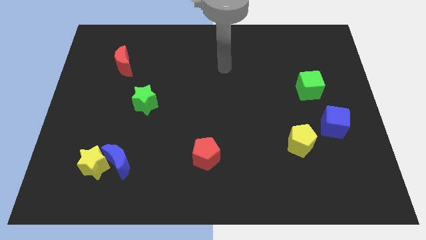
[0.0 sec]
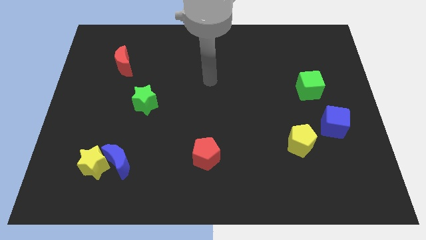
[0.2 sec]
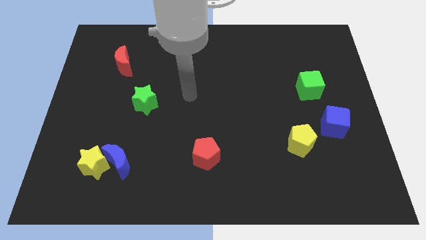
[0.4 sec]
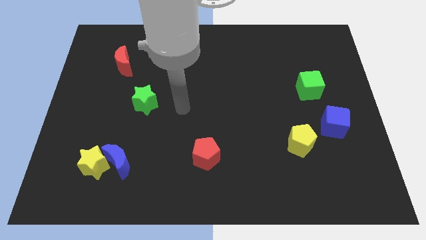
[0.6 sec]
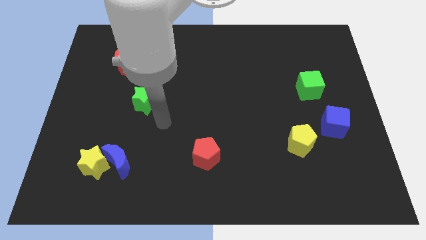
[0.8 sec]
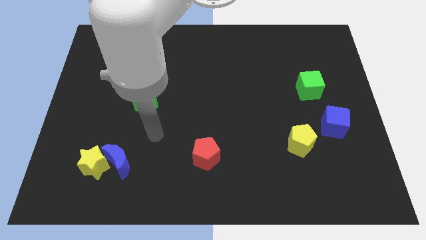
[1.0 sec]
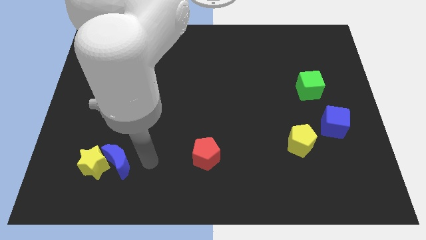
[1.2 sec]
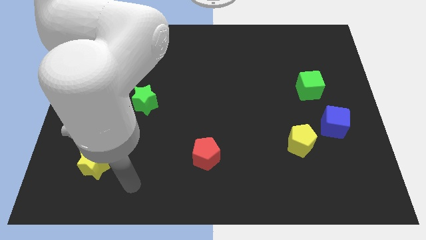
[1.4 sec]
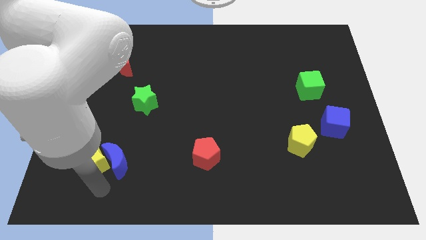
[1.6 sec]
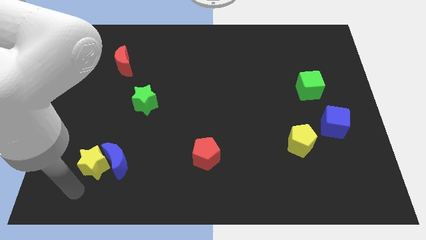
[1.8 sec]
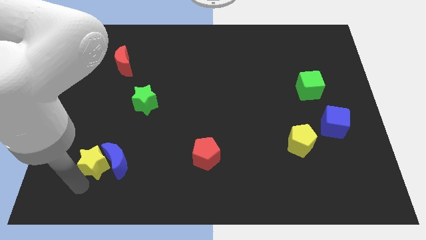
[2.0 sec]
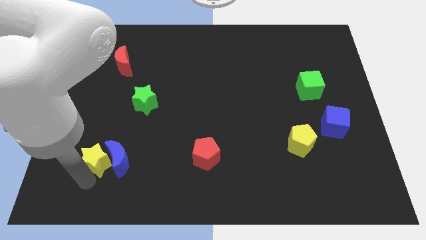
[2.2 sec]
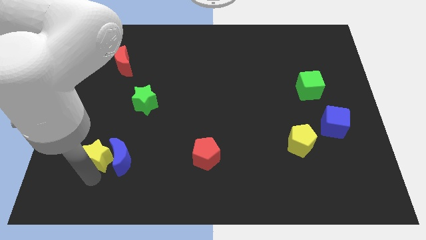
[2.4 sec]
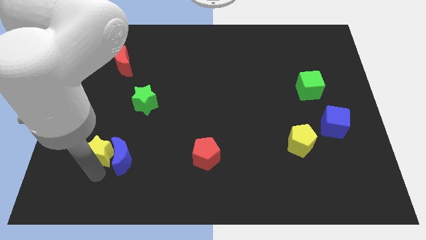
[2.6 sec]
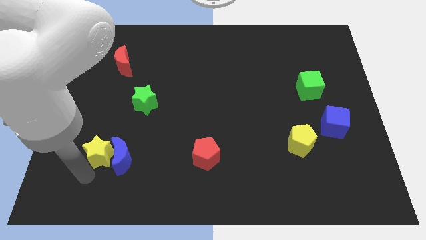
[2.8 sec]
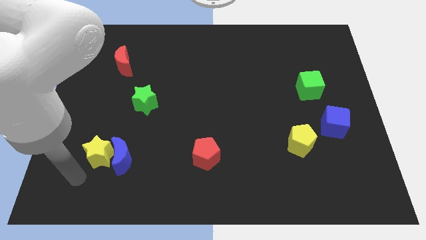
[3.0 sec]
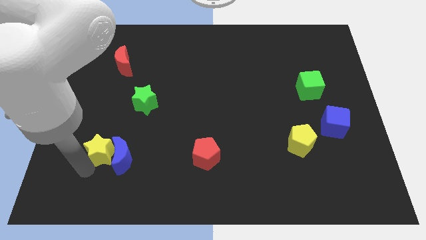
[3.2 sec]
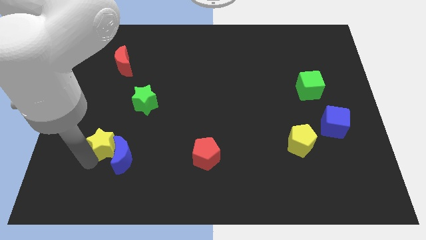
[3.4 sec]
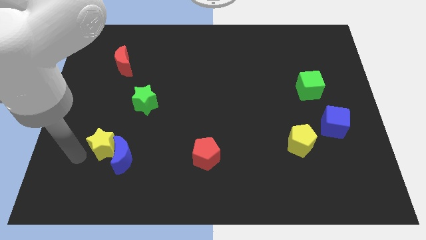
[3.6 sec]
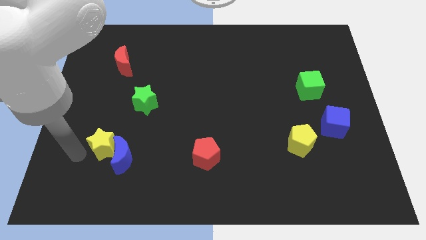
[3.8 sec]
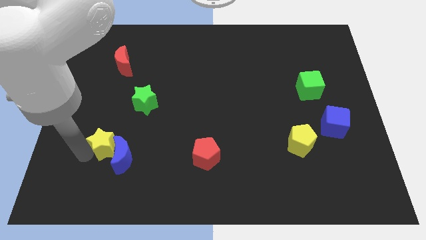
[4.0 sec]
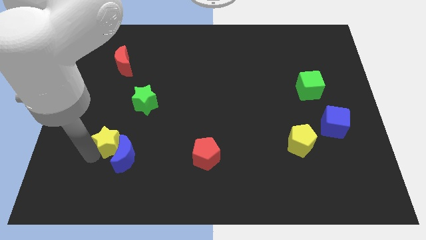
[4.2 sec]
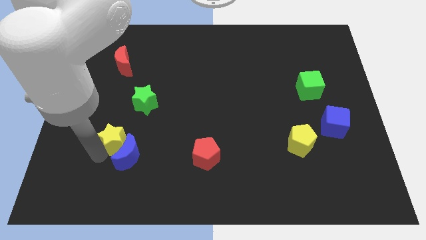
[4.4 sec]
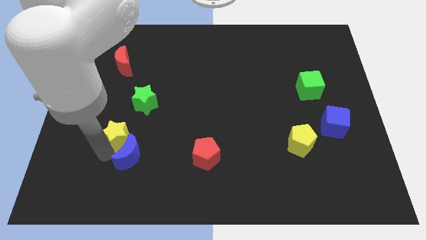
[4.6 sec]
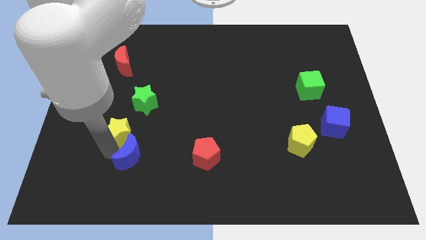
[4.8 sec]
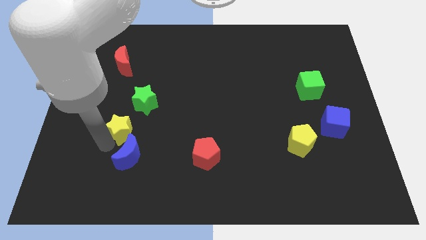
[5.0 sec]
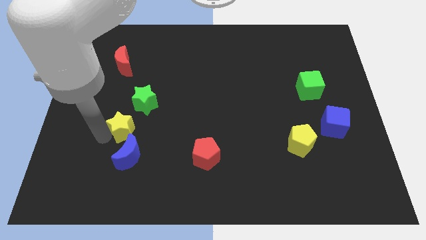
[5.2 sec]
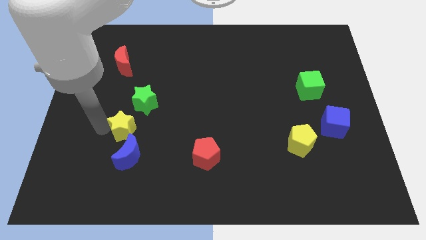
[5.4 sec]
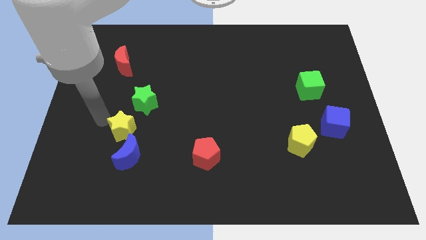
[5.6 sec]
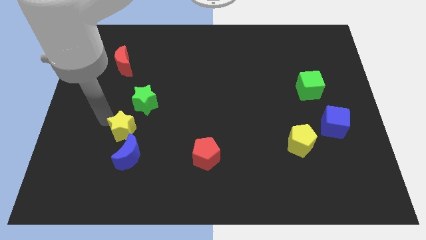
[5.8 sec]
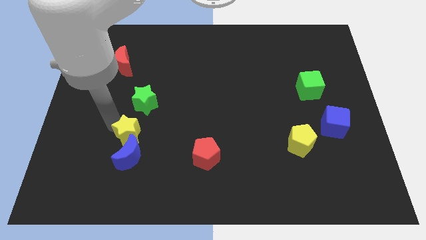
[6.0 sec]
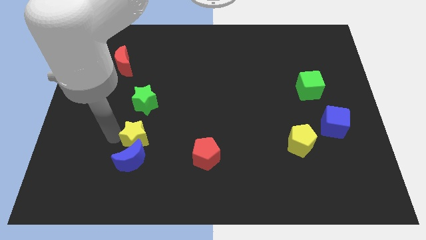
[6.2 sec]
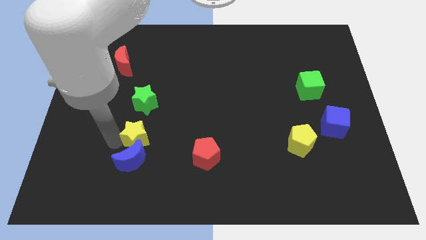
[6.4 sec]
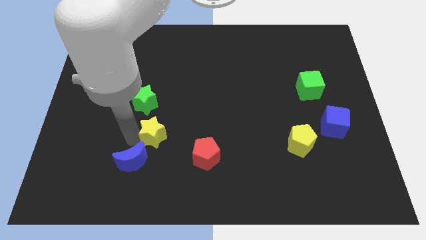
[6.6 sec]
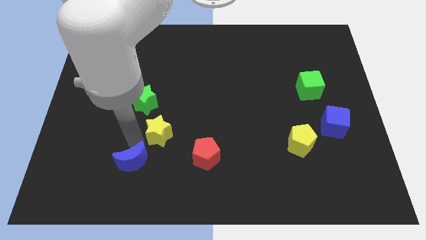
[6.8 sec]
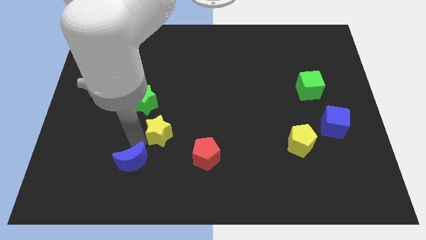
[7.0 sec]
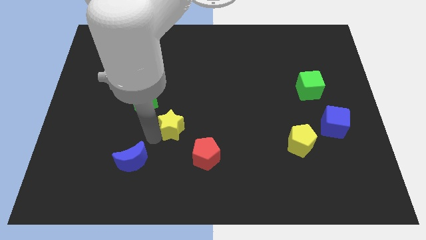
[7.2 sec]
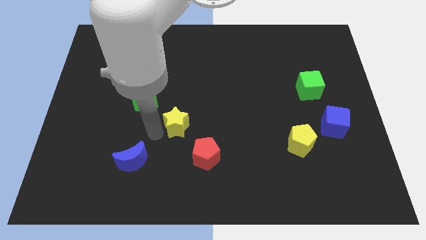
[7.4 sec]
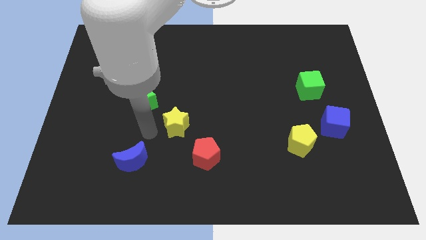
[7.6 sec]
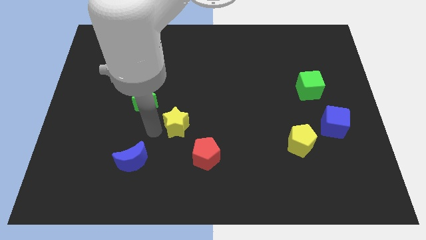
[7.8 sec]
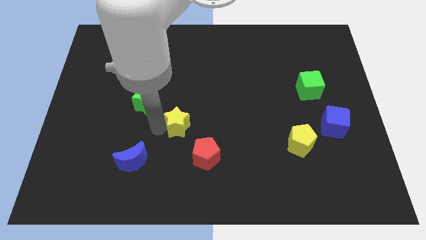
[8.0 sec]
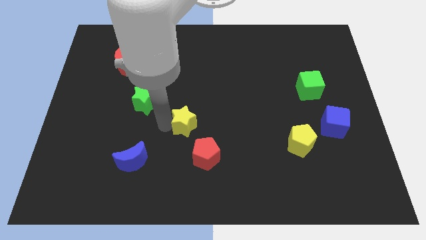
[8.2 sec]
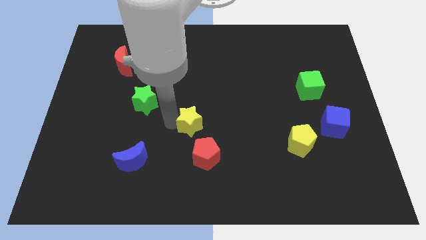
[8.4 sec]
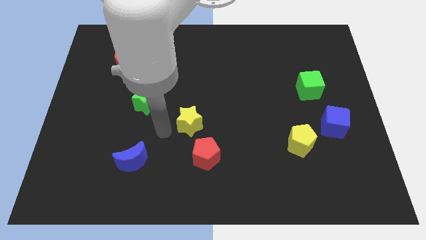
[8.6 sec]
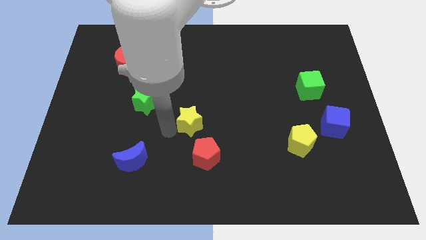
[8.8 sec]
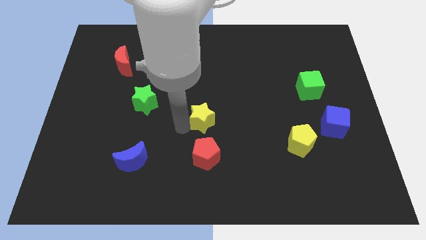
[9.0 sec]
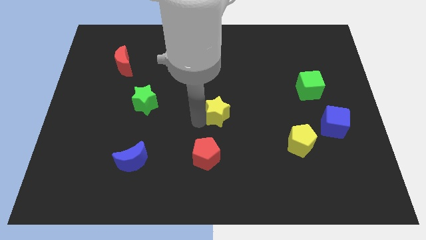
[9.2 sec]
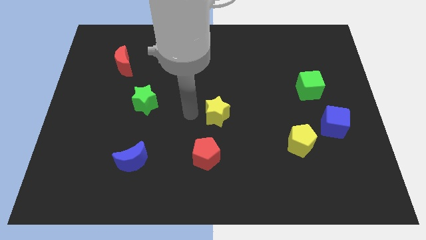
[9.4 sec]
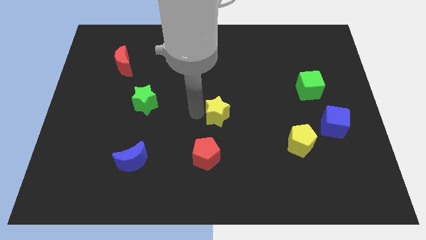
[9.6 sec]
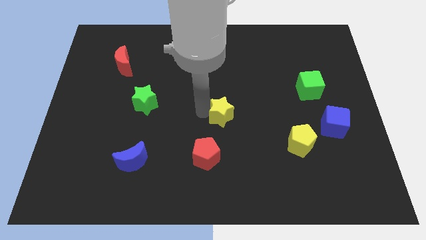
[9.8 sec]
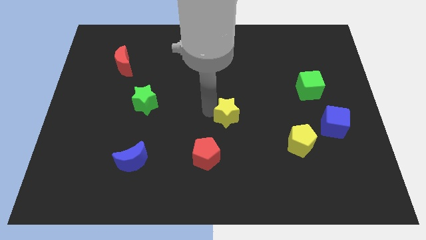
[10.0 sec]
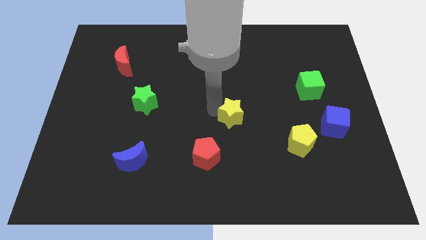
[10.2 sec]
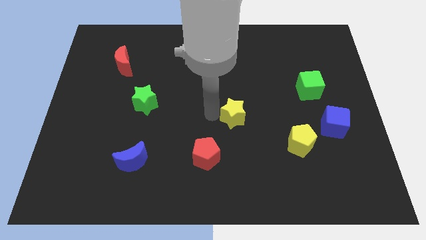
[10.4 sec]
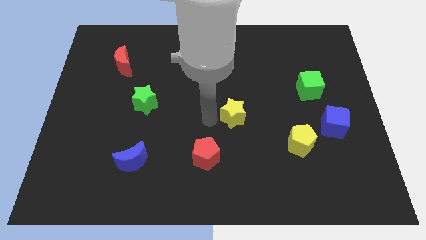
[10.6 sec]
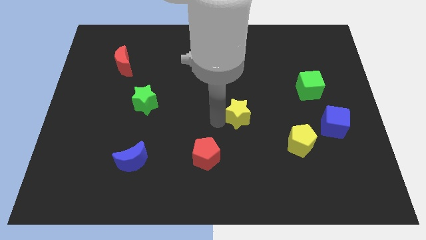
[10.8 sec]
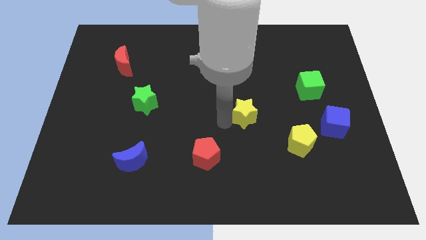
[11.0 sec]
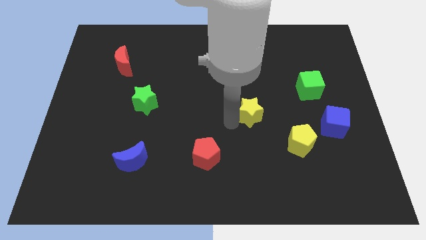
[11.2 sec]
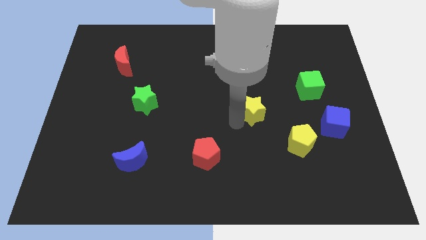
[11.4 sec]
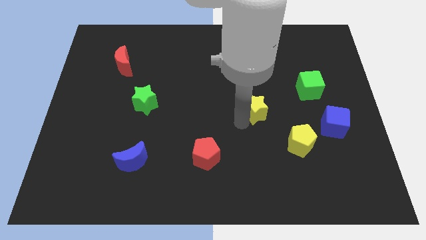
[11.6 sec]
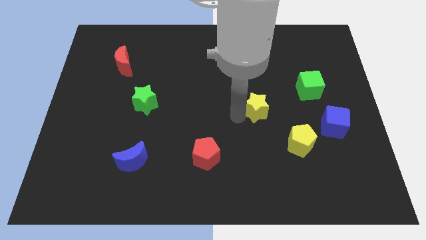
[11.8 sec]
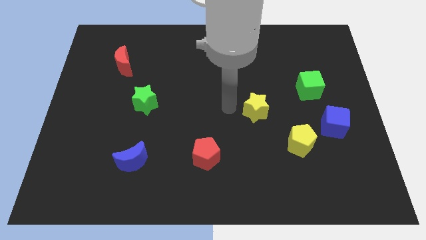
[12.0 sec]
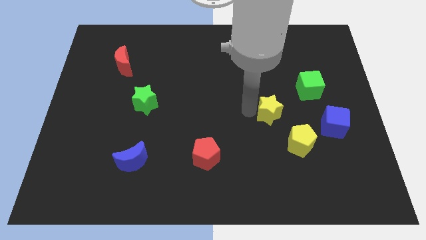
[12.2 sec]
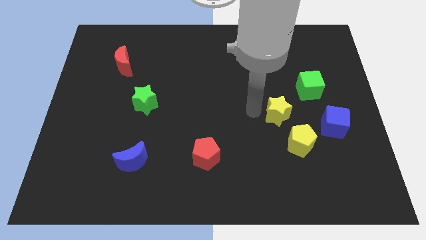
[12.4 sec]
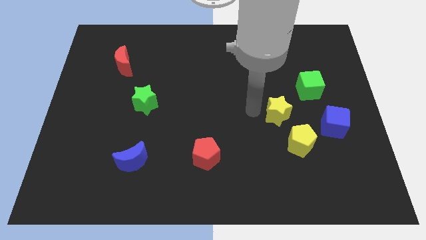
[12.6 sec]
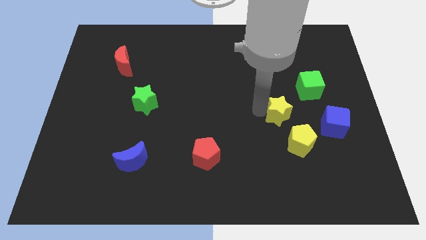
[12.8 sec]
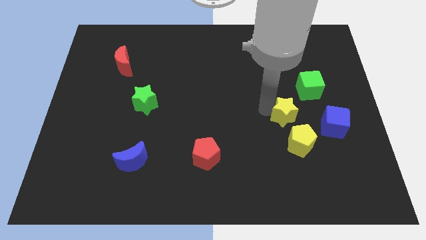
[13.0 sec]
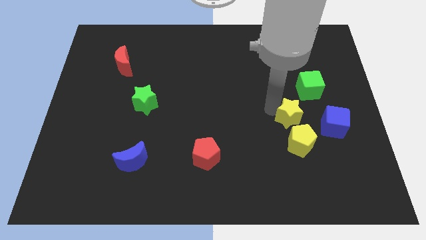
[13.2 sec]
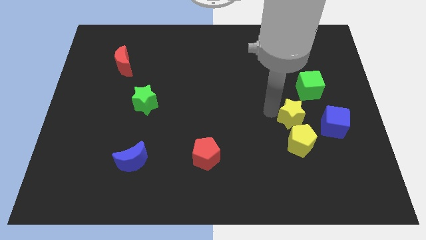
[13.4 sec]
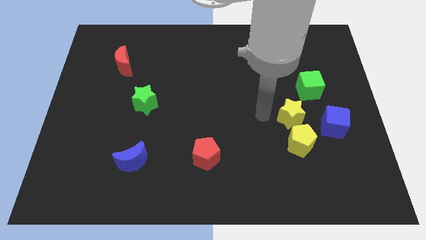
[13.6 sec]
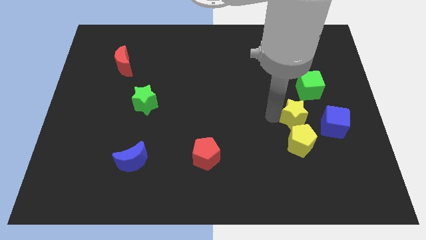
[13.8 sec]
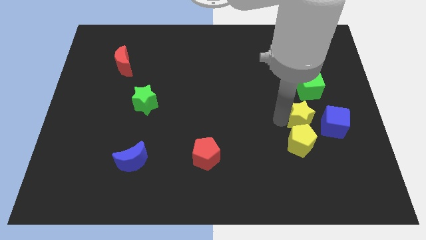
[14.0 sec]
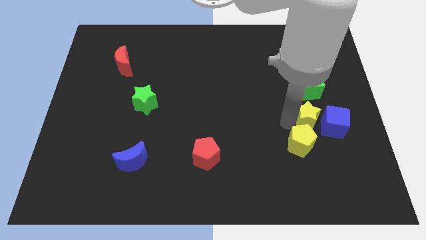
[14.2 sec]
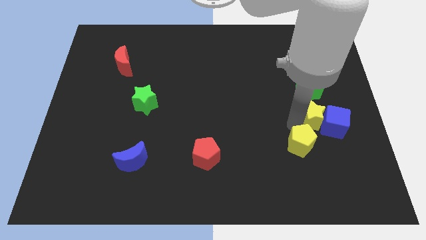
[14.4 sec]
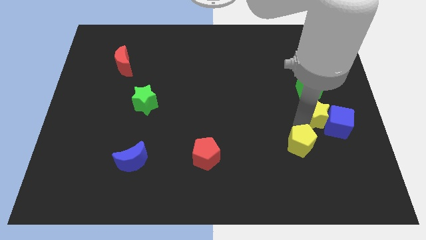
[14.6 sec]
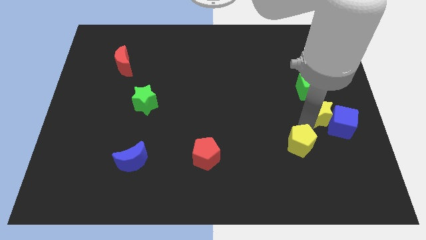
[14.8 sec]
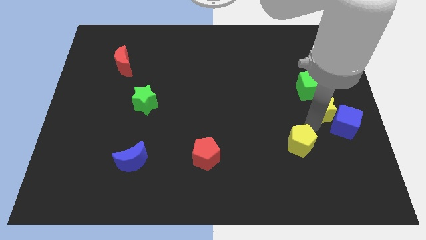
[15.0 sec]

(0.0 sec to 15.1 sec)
move the yellow star to the center right
